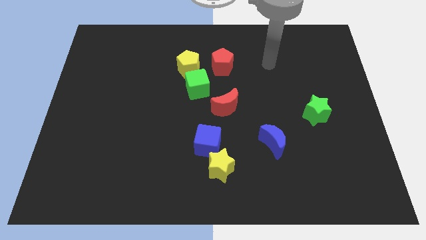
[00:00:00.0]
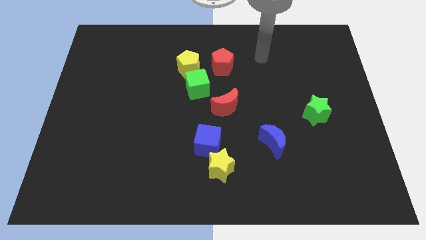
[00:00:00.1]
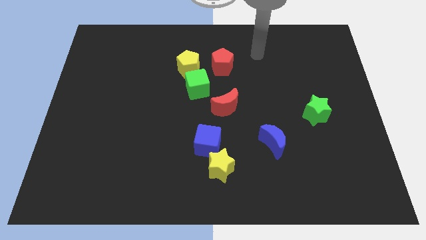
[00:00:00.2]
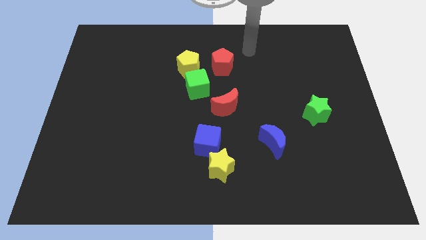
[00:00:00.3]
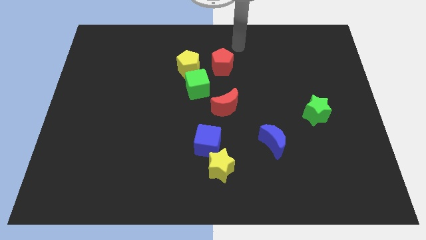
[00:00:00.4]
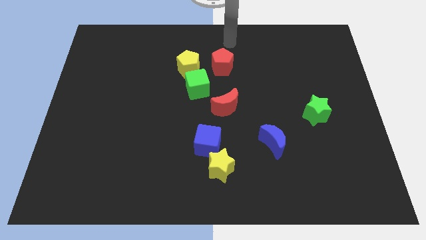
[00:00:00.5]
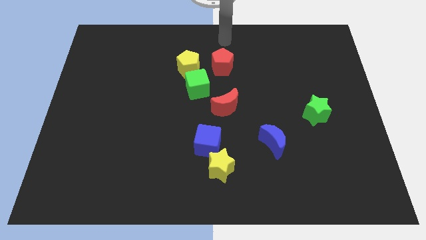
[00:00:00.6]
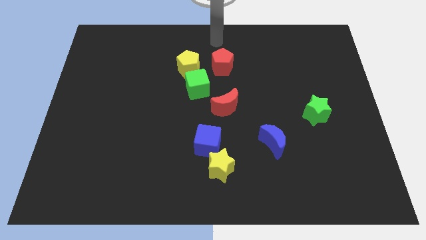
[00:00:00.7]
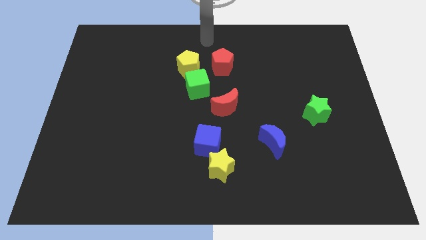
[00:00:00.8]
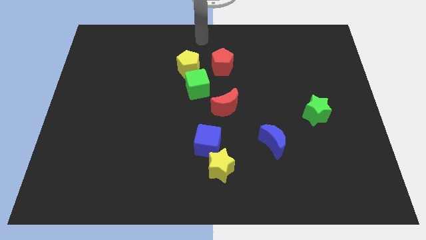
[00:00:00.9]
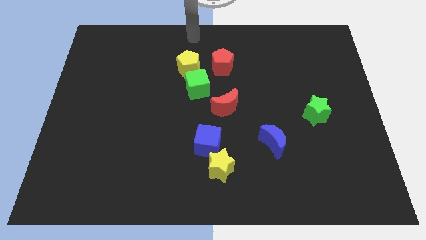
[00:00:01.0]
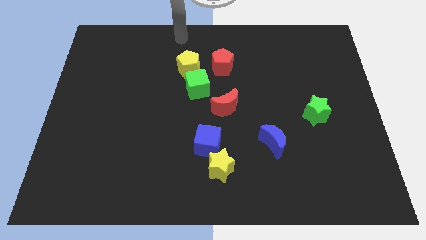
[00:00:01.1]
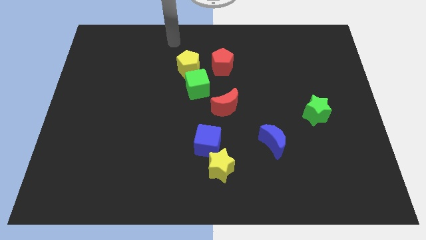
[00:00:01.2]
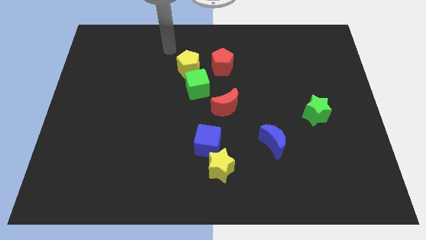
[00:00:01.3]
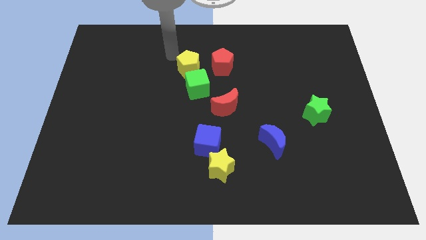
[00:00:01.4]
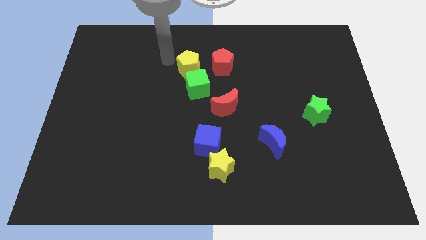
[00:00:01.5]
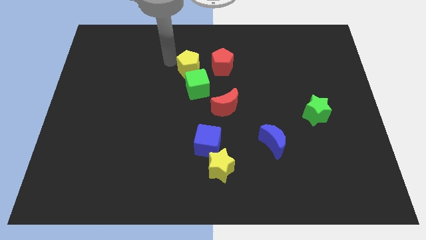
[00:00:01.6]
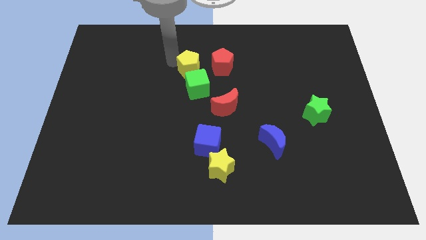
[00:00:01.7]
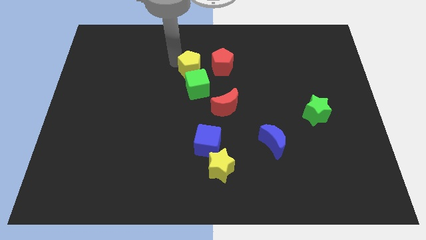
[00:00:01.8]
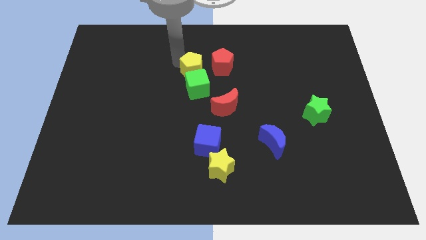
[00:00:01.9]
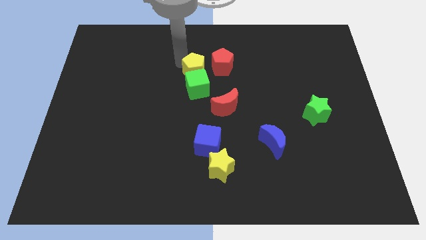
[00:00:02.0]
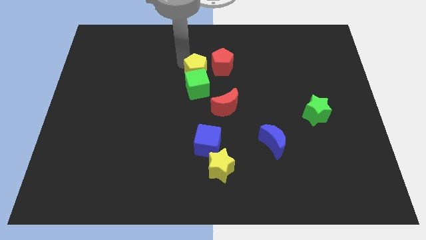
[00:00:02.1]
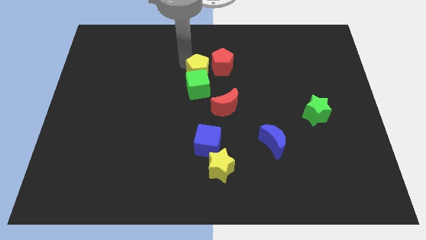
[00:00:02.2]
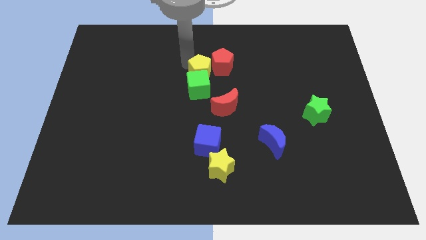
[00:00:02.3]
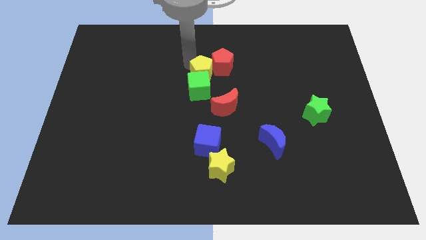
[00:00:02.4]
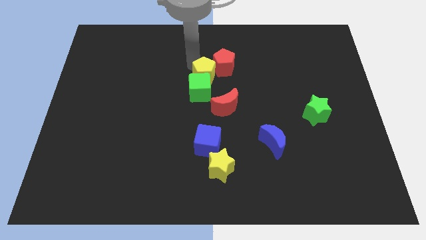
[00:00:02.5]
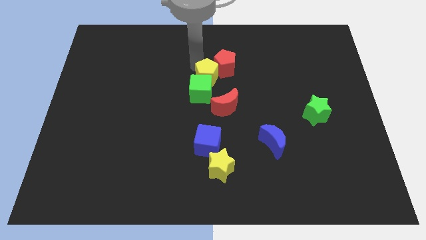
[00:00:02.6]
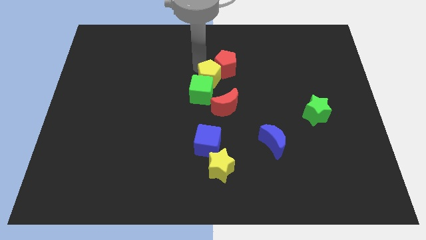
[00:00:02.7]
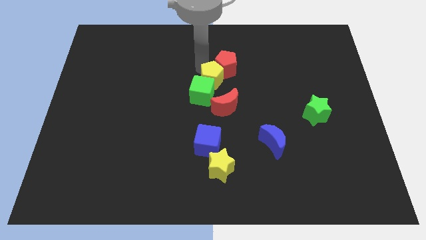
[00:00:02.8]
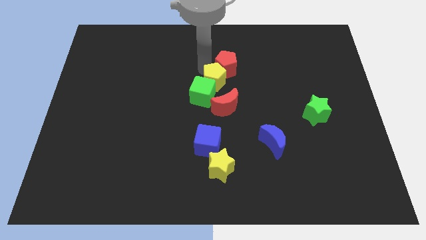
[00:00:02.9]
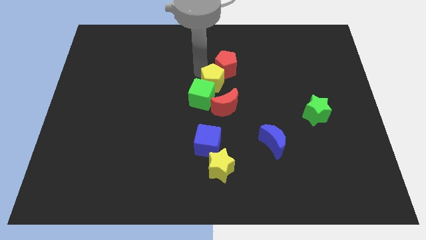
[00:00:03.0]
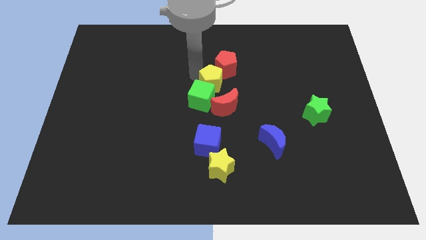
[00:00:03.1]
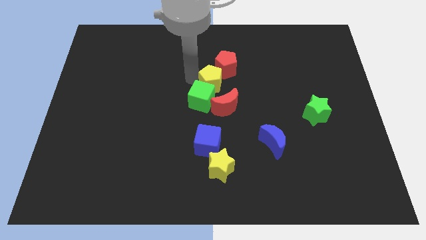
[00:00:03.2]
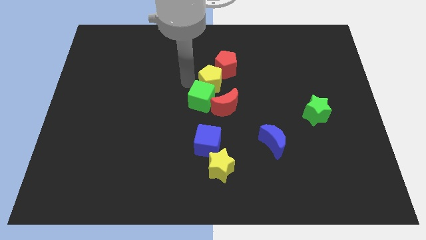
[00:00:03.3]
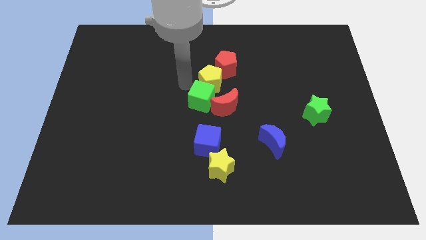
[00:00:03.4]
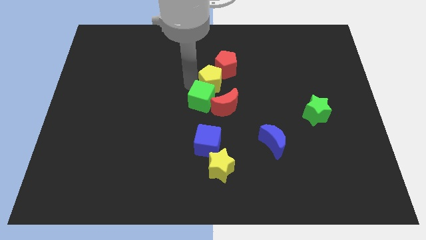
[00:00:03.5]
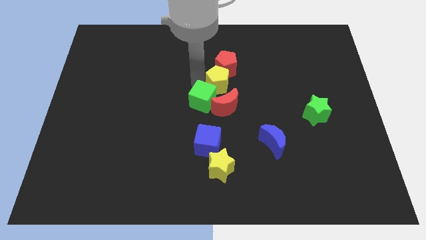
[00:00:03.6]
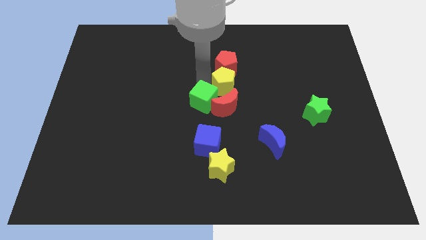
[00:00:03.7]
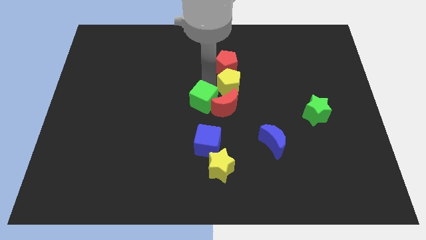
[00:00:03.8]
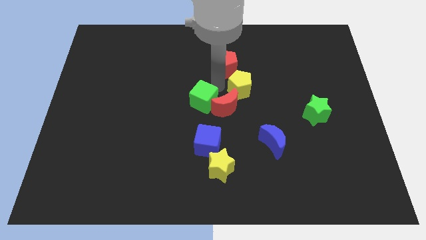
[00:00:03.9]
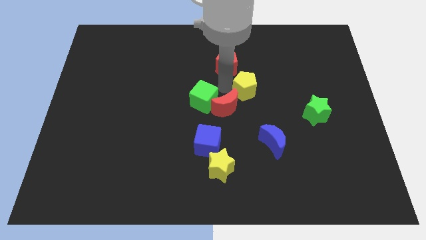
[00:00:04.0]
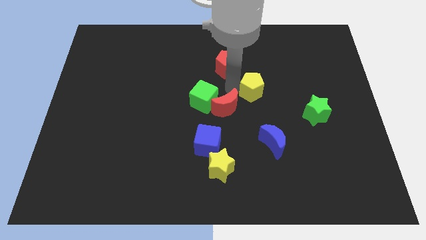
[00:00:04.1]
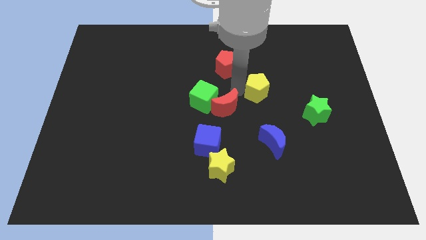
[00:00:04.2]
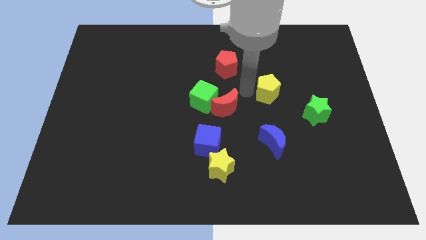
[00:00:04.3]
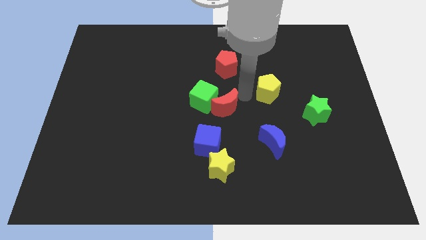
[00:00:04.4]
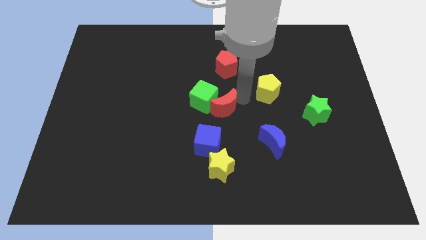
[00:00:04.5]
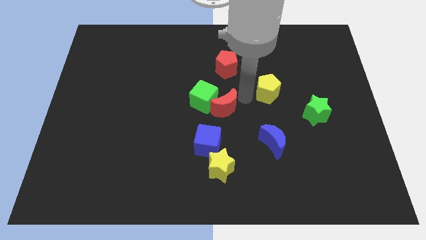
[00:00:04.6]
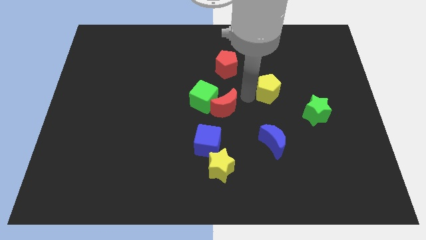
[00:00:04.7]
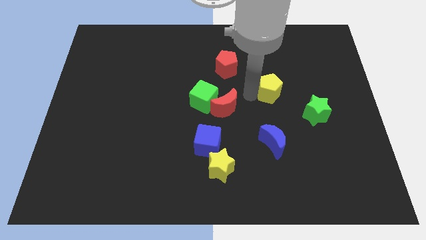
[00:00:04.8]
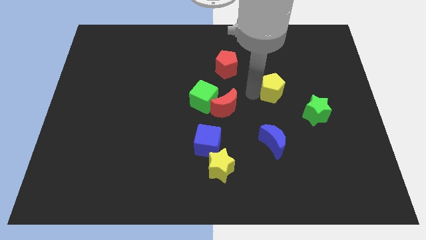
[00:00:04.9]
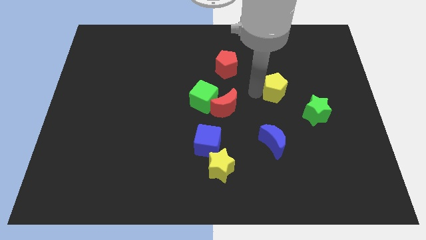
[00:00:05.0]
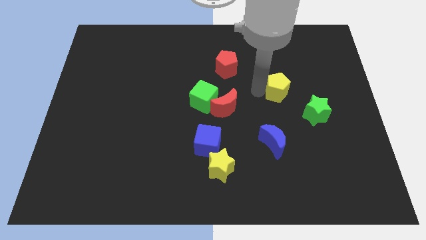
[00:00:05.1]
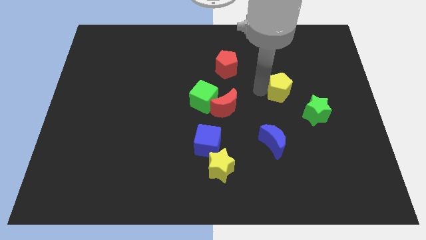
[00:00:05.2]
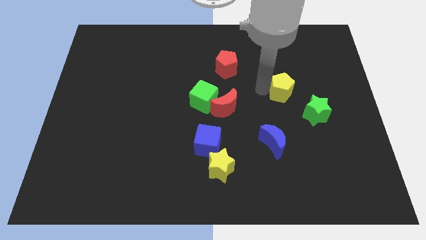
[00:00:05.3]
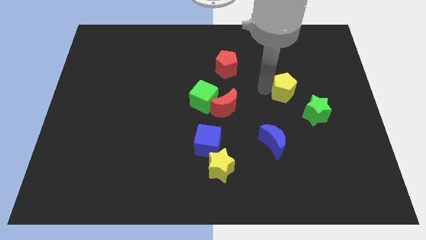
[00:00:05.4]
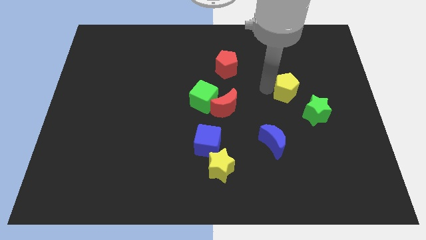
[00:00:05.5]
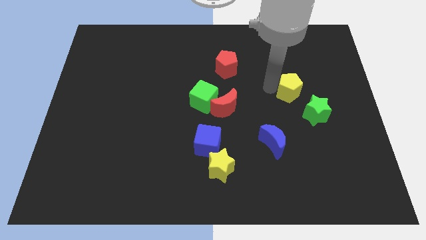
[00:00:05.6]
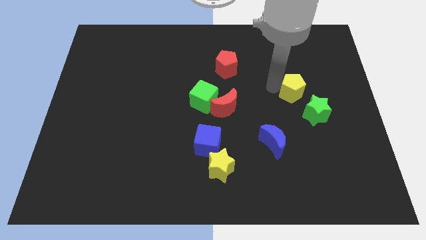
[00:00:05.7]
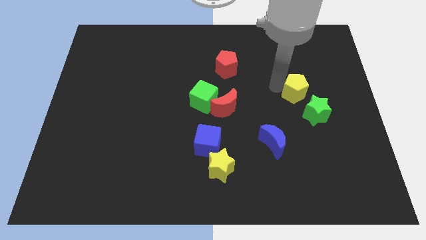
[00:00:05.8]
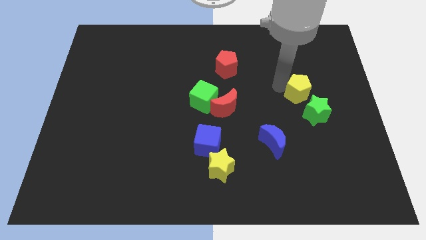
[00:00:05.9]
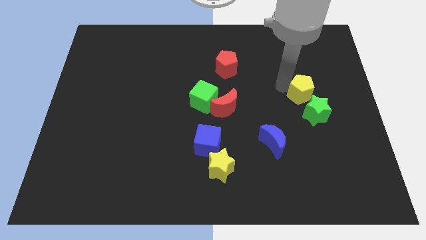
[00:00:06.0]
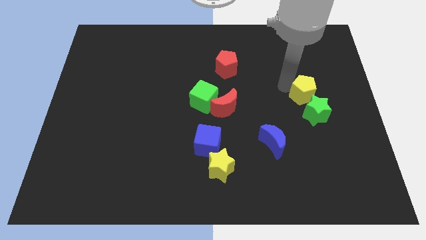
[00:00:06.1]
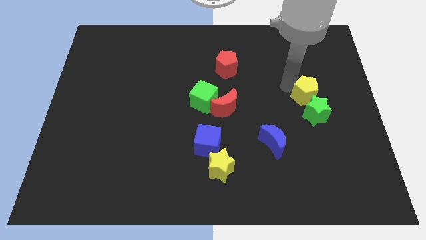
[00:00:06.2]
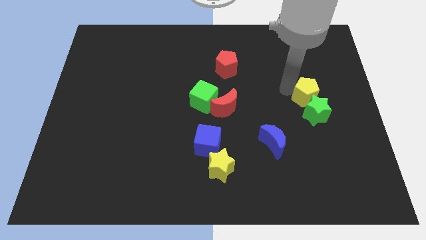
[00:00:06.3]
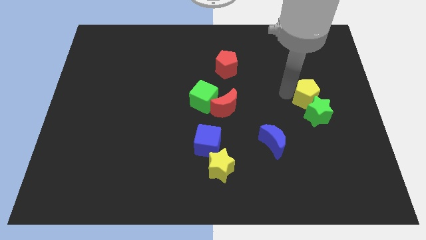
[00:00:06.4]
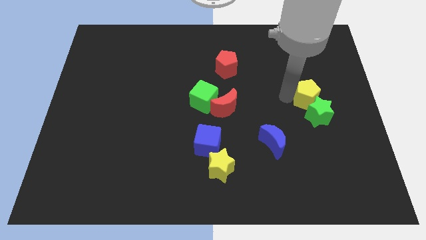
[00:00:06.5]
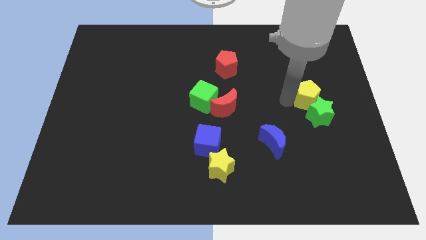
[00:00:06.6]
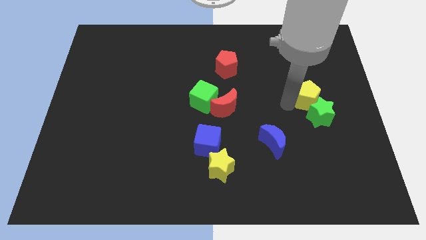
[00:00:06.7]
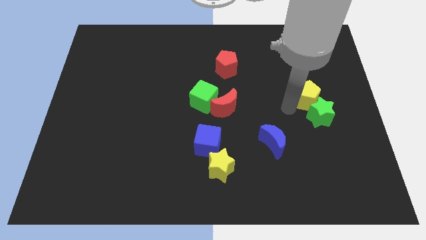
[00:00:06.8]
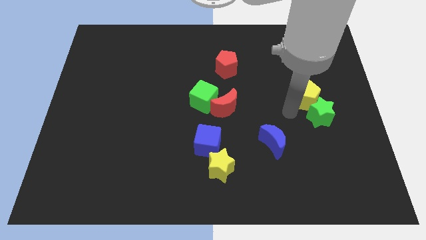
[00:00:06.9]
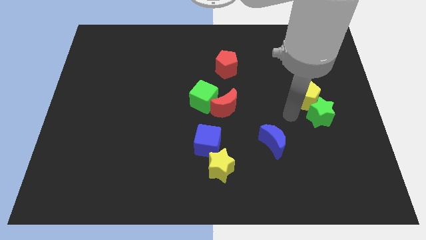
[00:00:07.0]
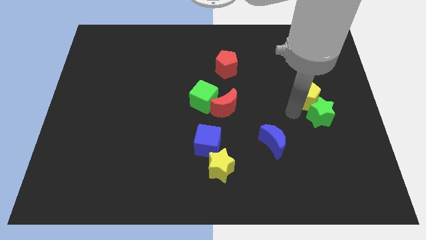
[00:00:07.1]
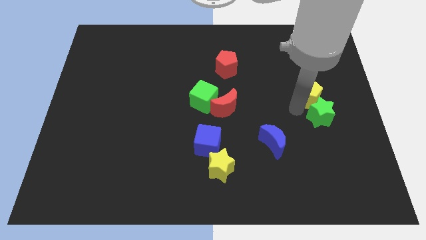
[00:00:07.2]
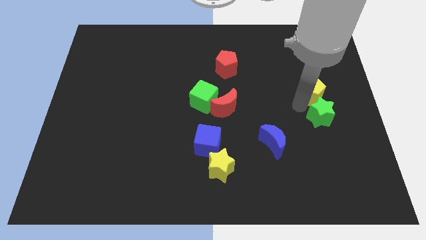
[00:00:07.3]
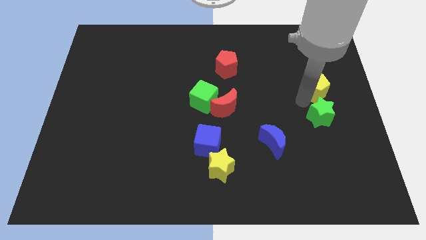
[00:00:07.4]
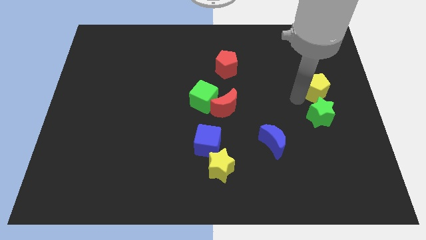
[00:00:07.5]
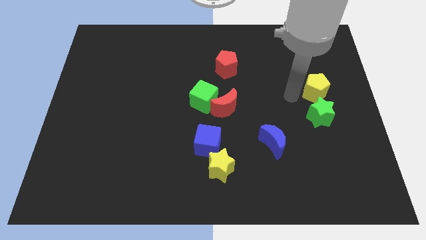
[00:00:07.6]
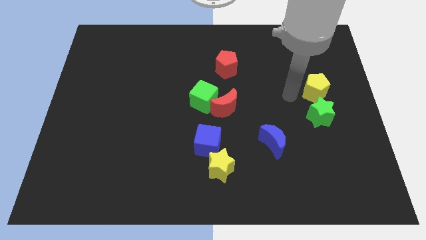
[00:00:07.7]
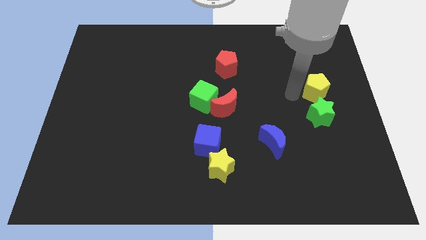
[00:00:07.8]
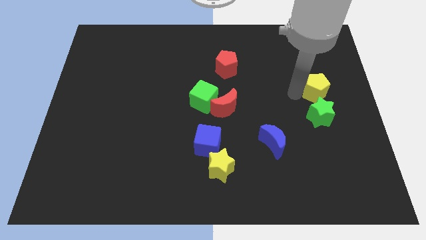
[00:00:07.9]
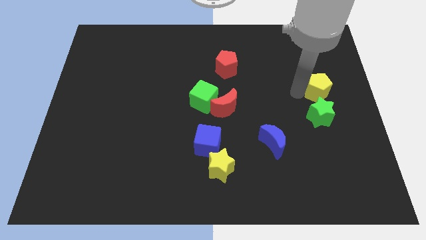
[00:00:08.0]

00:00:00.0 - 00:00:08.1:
put the yellow pentagon to the right side of the board
